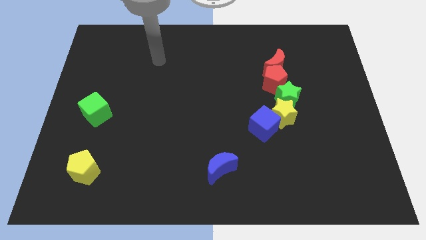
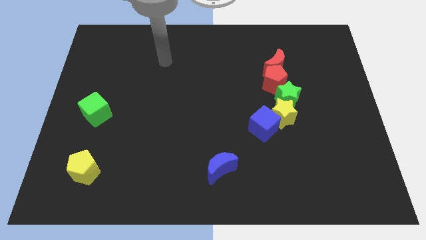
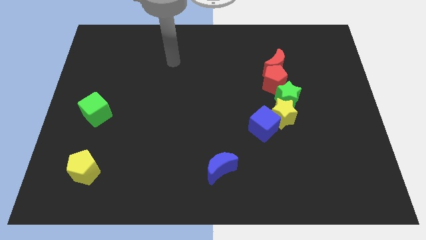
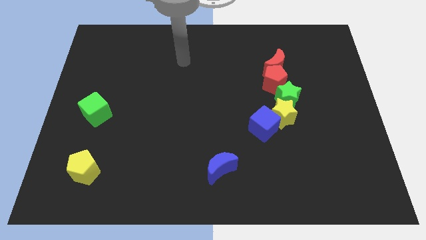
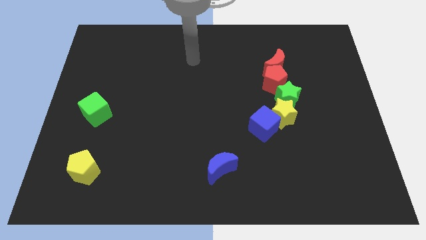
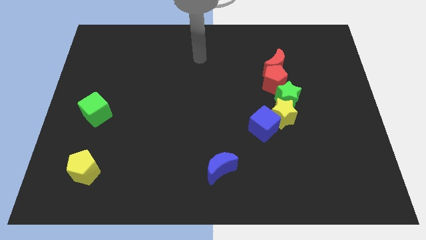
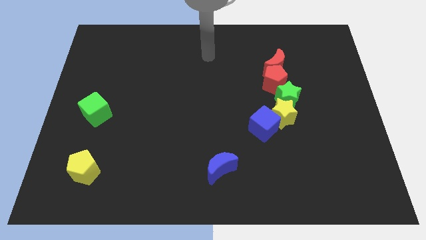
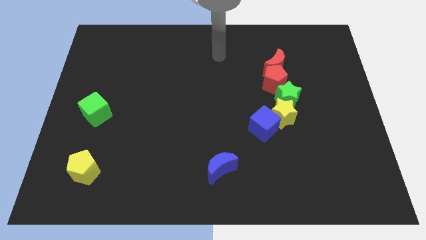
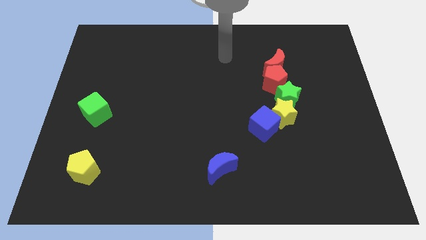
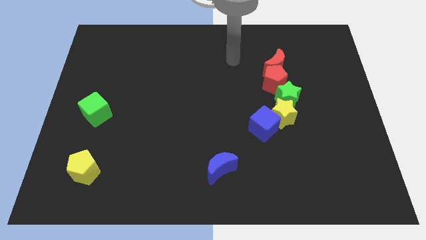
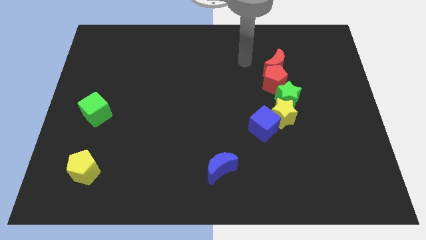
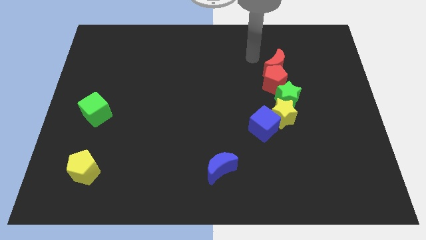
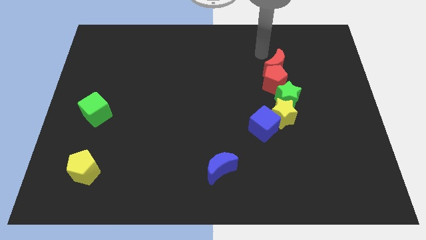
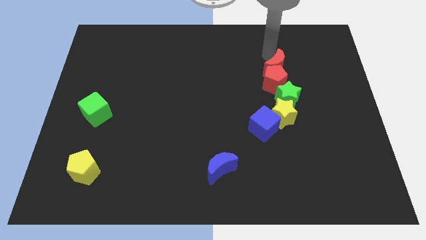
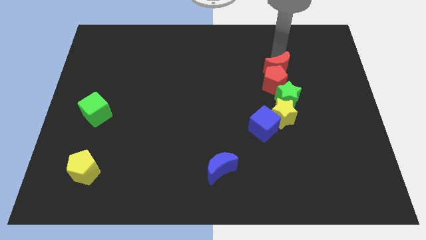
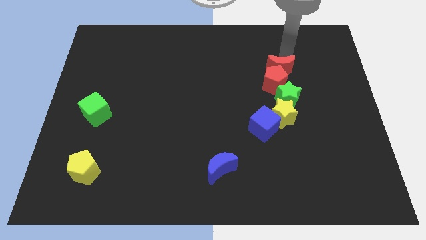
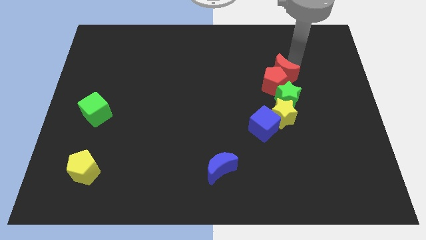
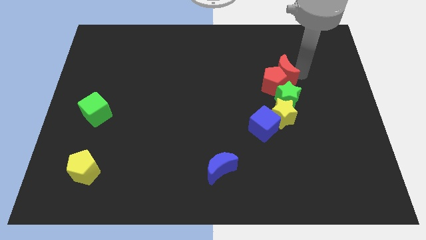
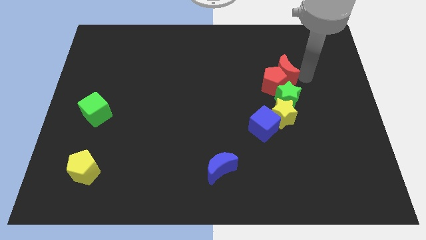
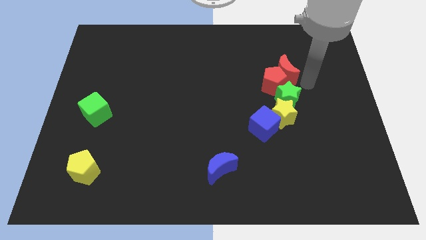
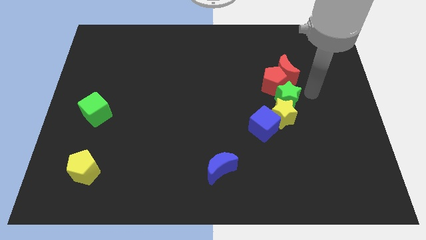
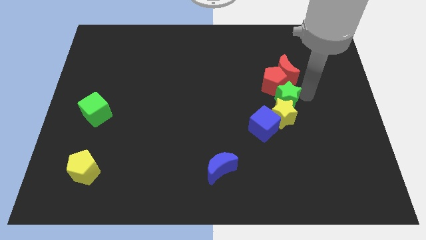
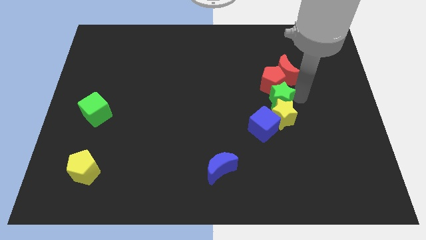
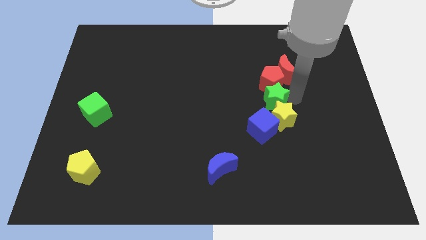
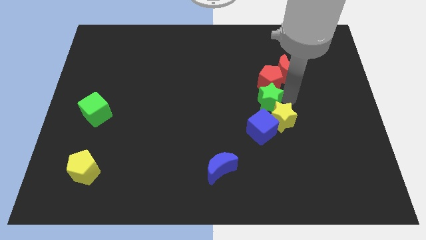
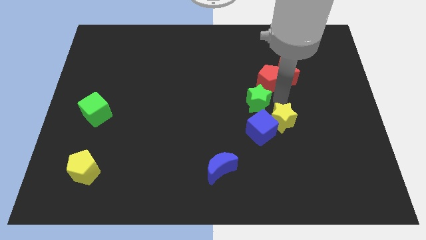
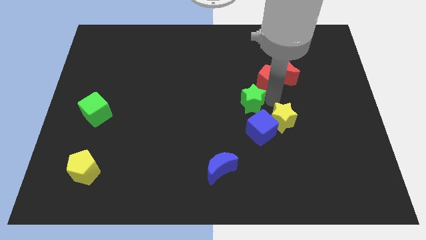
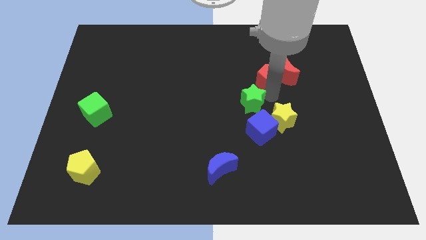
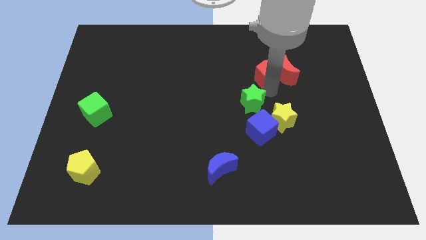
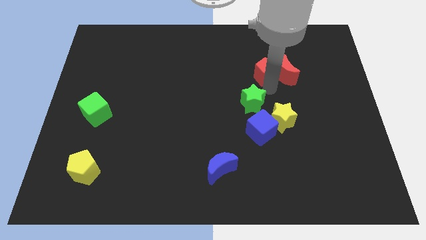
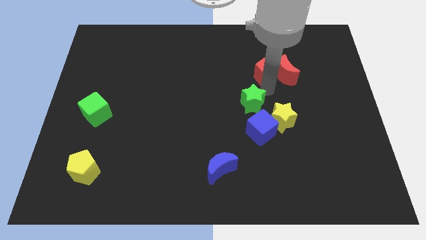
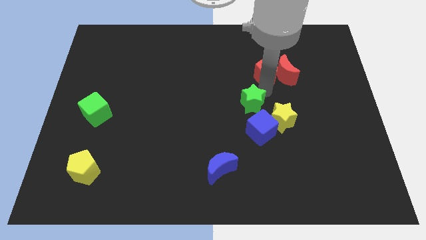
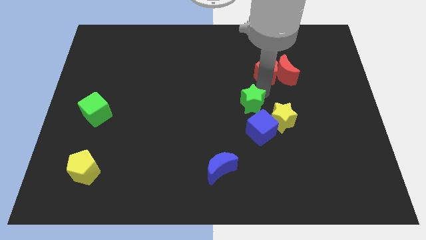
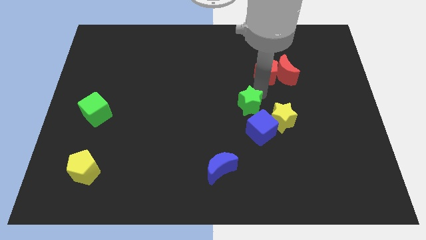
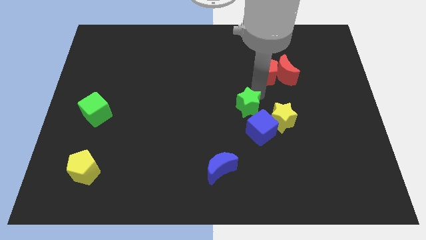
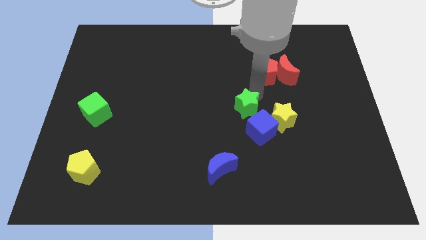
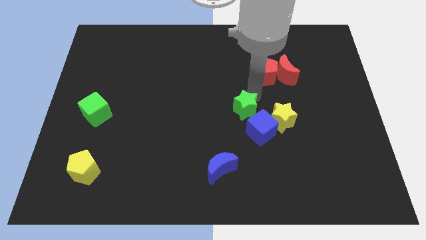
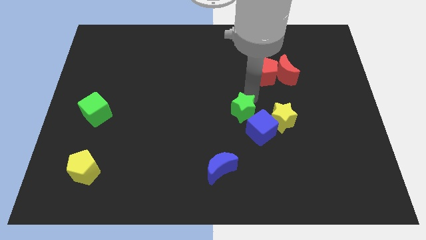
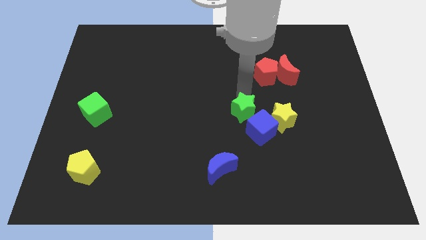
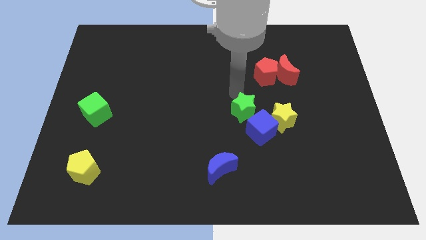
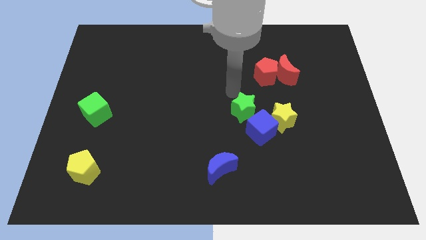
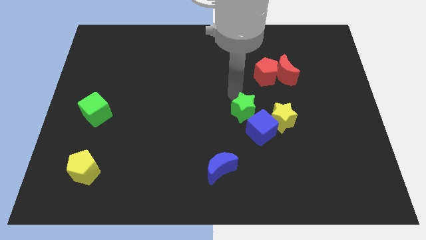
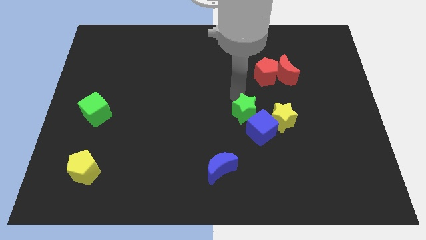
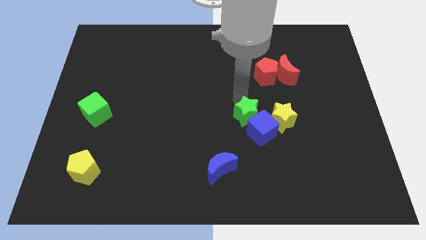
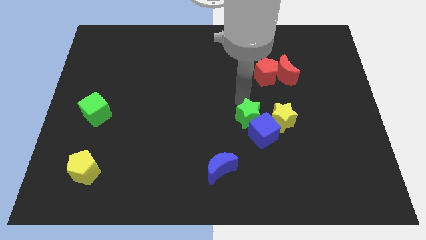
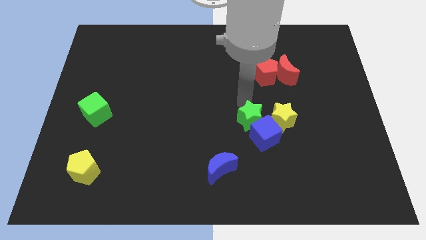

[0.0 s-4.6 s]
put the green star to the bottom left side of the yellow star

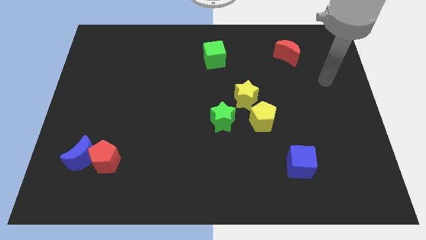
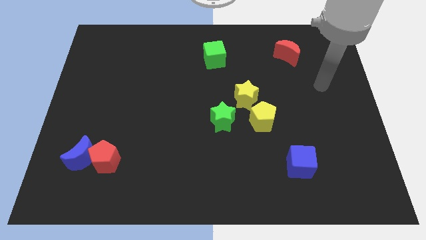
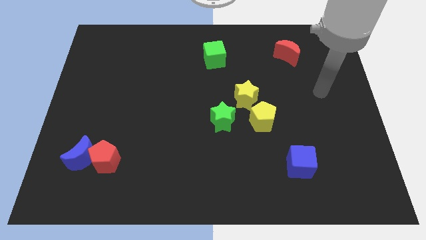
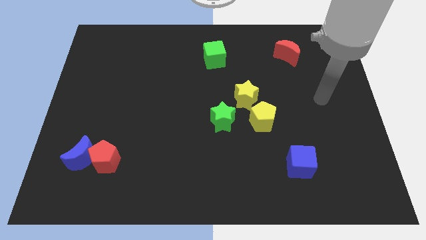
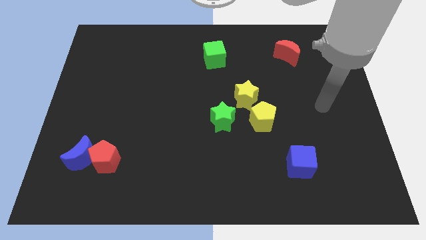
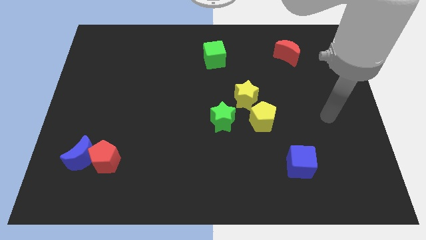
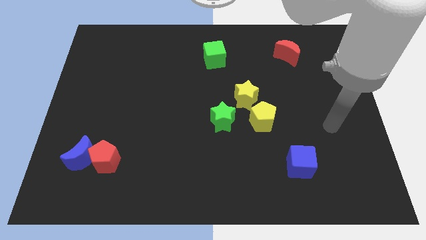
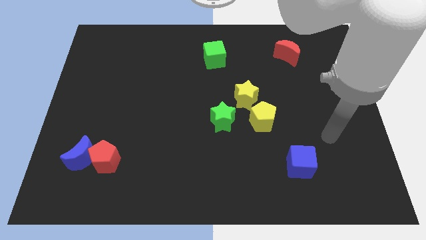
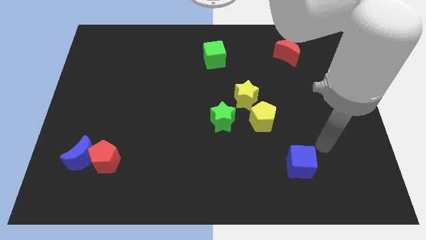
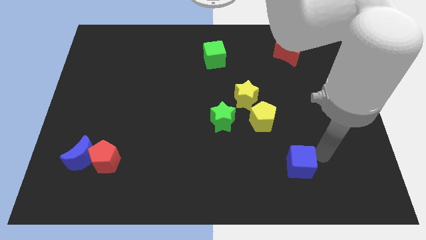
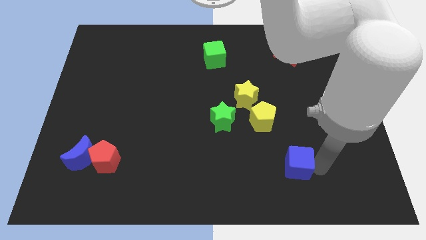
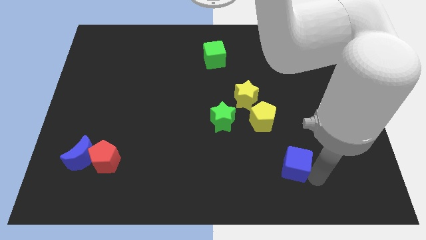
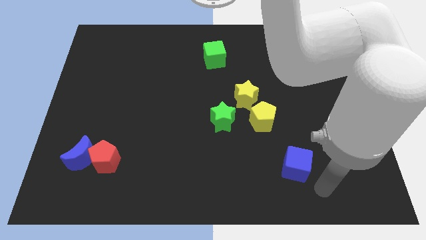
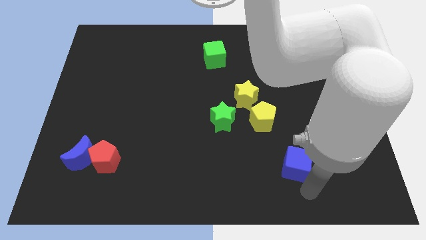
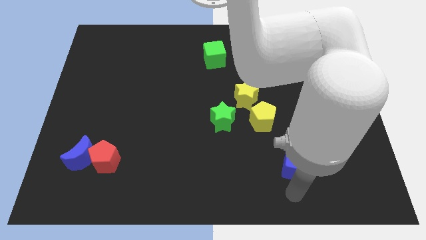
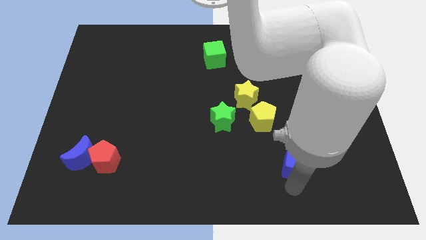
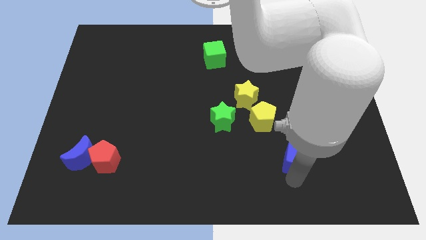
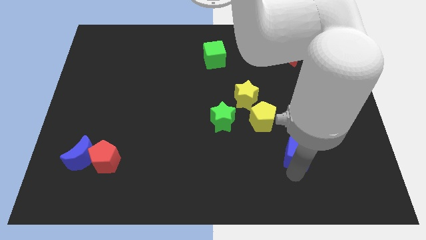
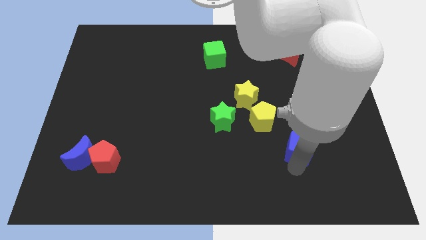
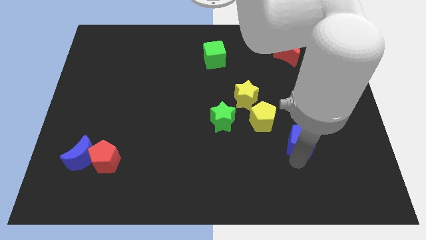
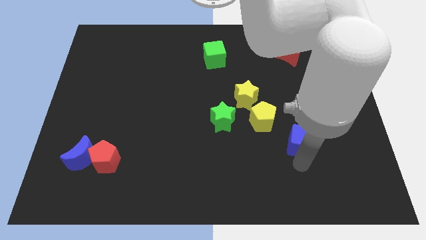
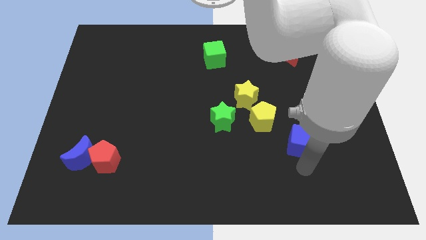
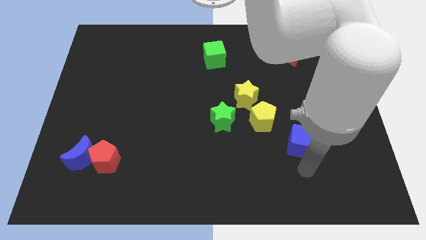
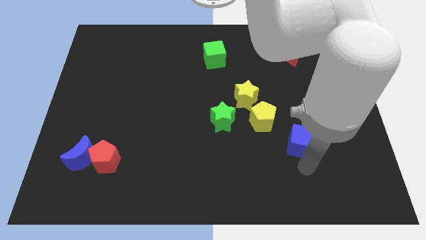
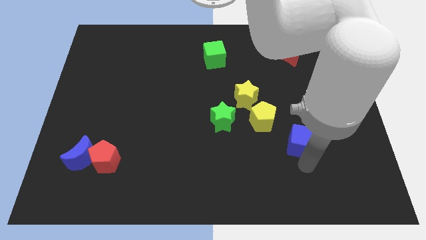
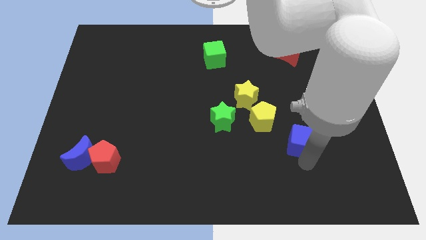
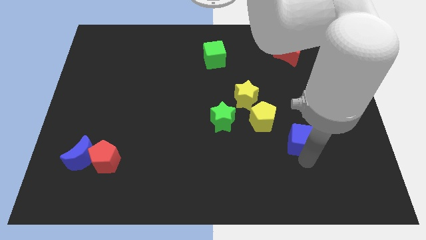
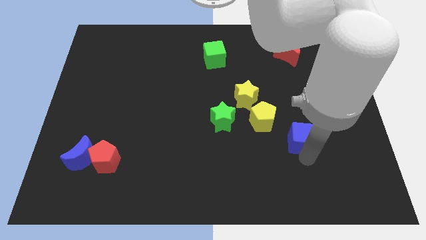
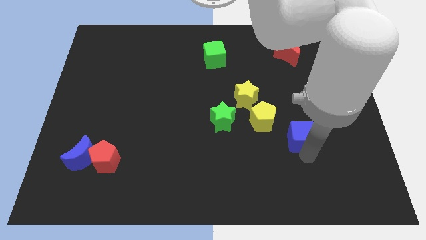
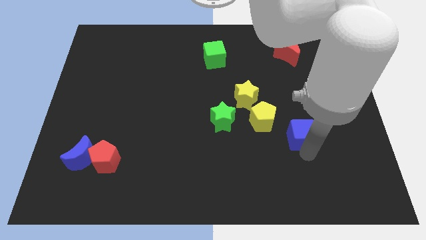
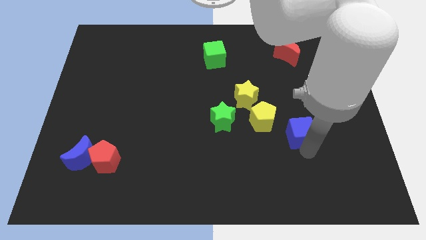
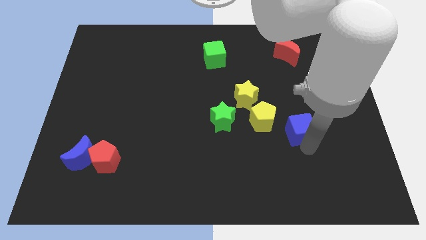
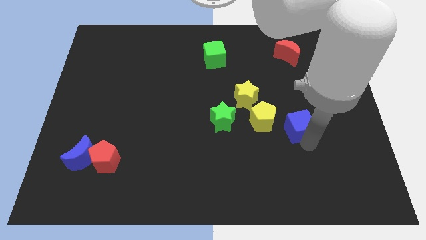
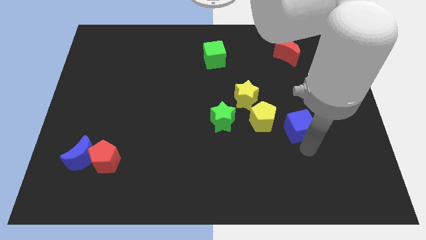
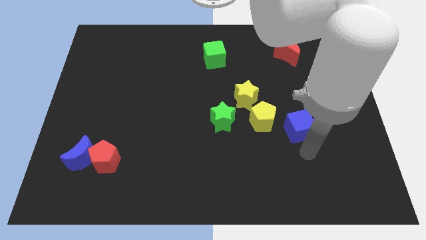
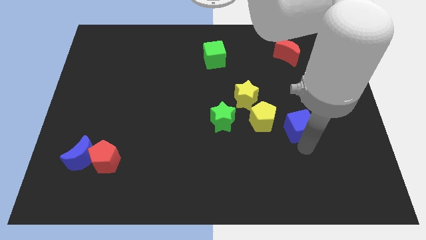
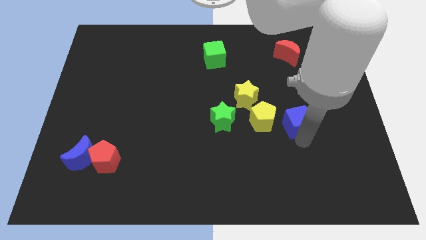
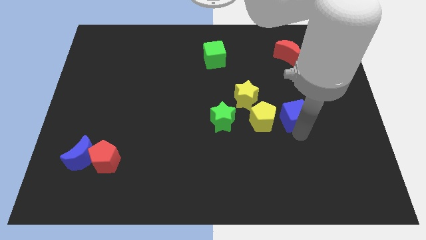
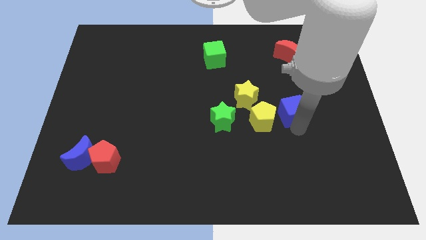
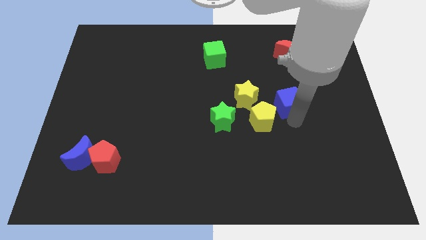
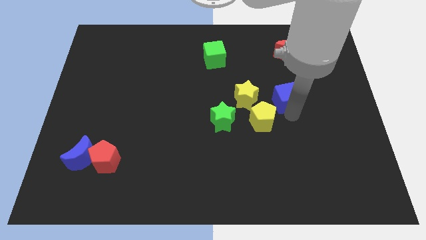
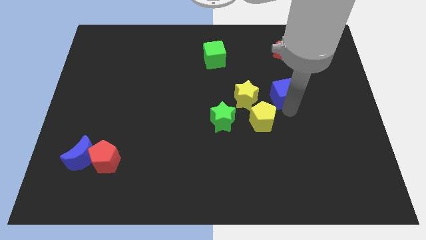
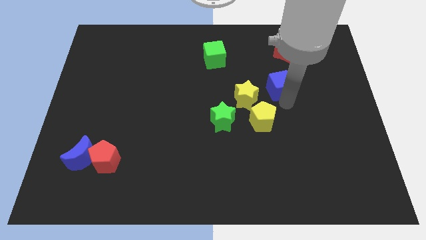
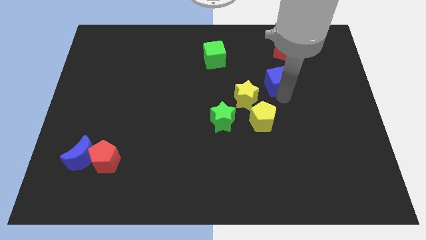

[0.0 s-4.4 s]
move the blue cube to the bottom left side of the red moon
